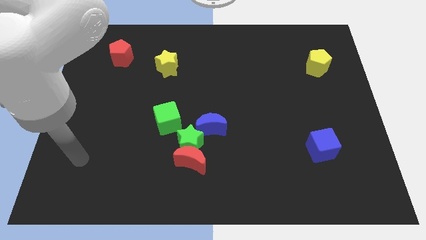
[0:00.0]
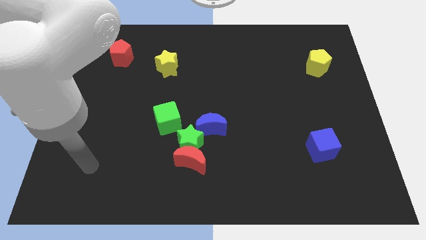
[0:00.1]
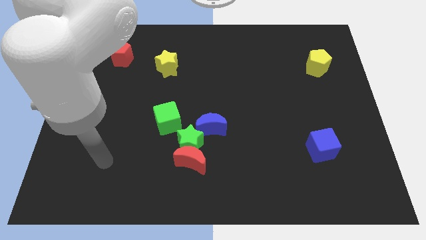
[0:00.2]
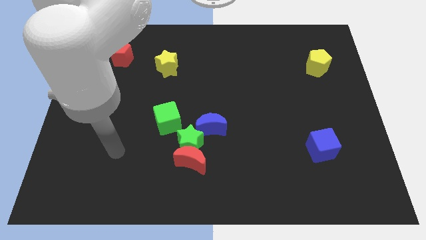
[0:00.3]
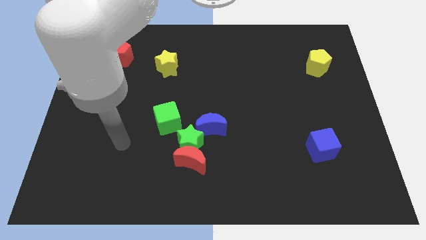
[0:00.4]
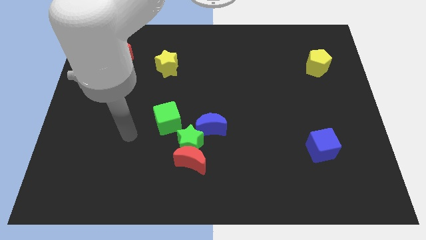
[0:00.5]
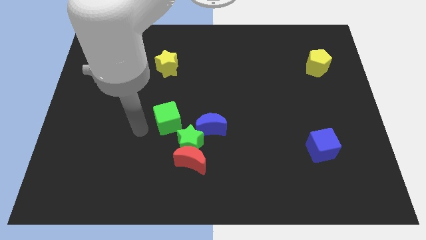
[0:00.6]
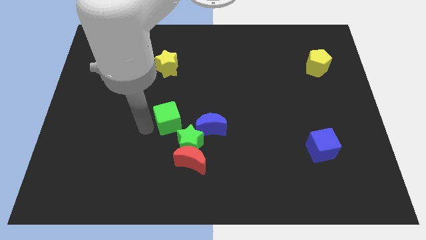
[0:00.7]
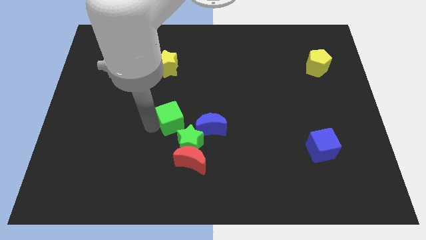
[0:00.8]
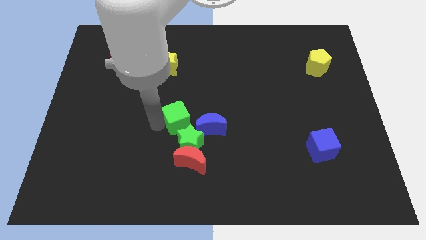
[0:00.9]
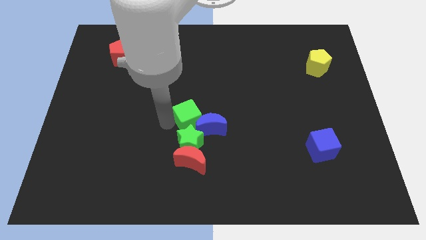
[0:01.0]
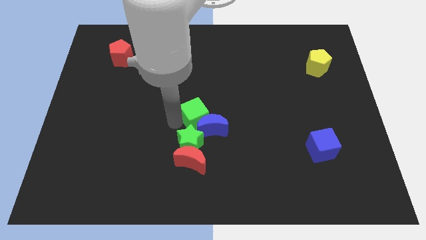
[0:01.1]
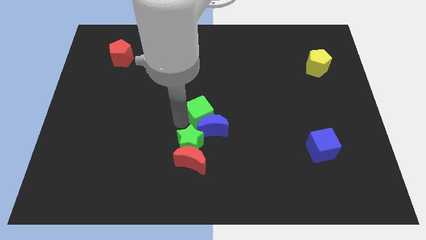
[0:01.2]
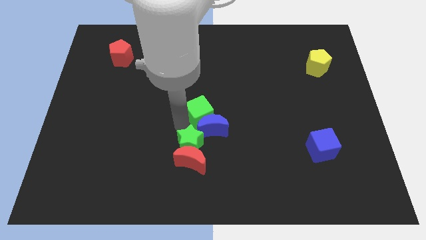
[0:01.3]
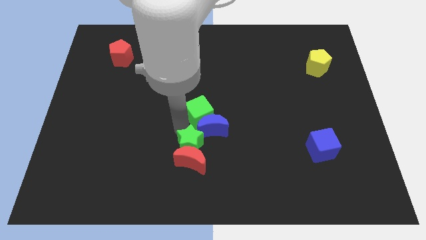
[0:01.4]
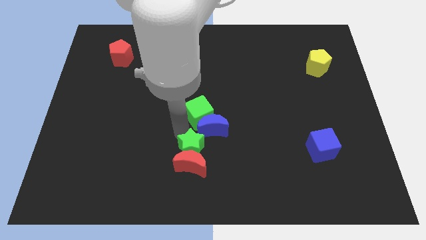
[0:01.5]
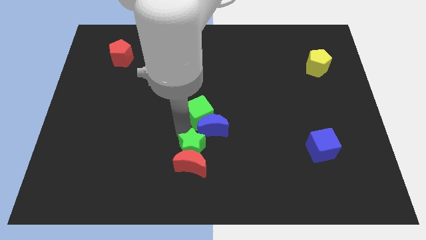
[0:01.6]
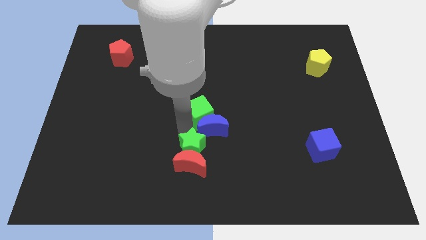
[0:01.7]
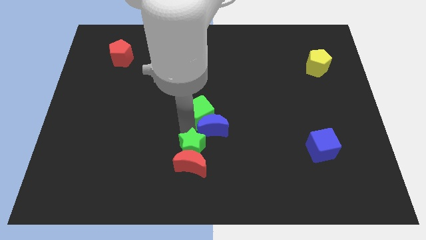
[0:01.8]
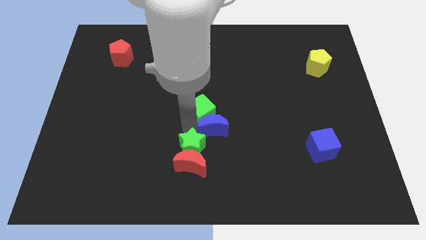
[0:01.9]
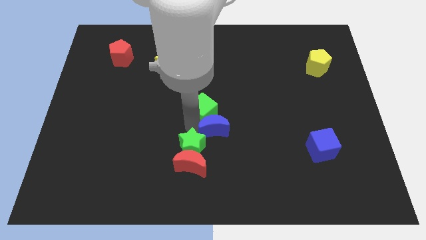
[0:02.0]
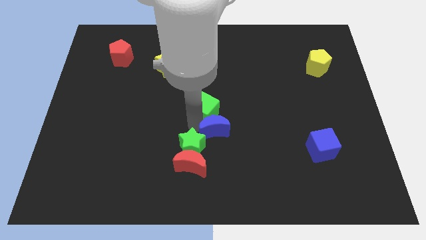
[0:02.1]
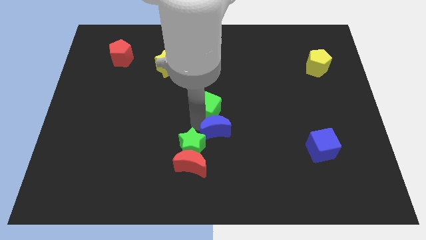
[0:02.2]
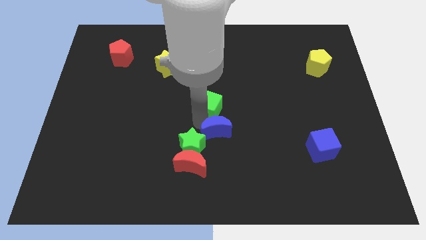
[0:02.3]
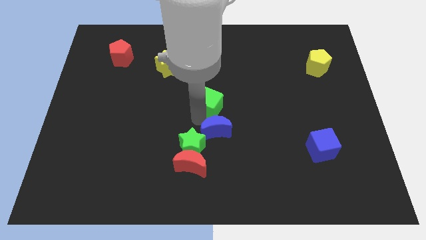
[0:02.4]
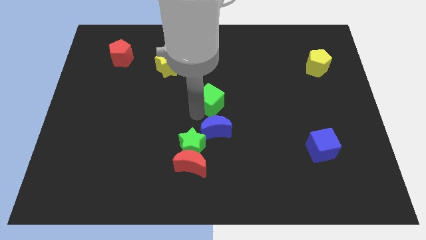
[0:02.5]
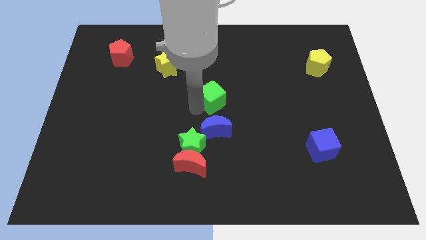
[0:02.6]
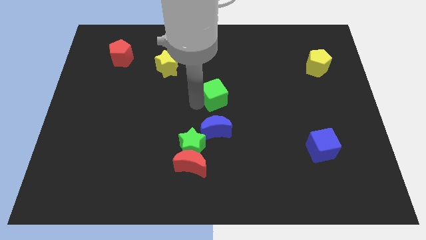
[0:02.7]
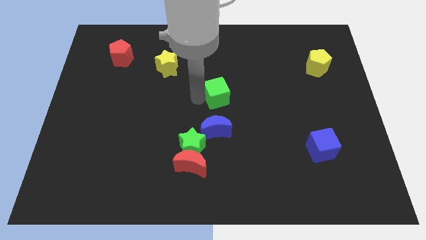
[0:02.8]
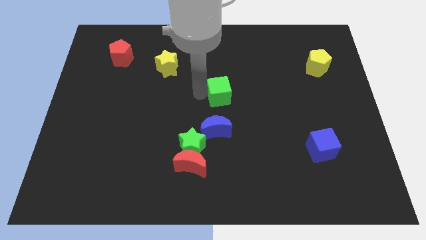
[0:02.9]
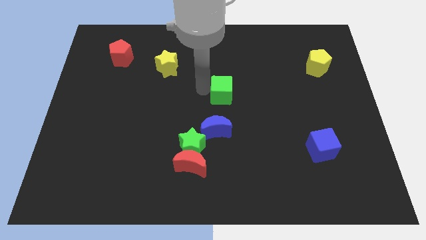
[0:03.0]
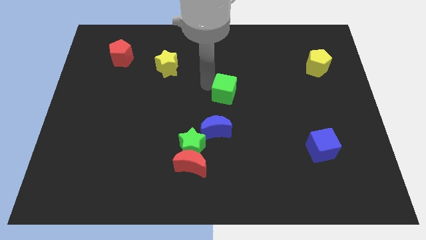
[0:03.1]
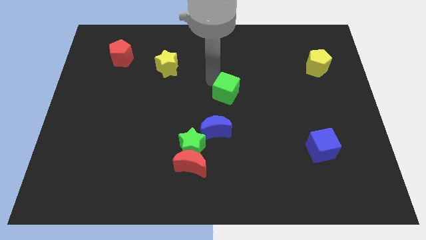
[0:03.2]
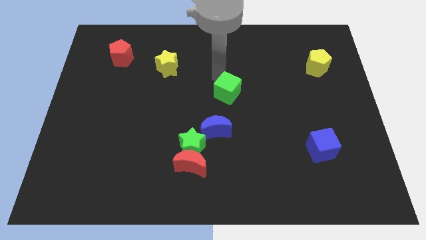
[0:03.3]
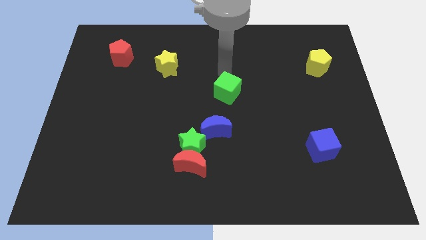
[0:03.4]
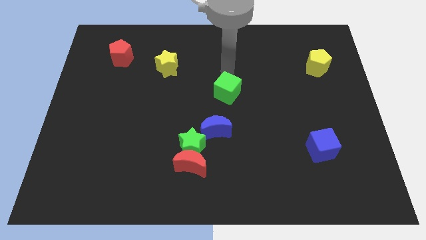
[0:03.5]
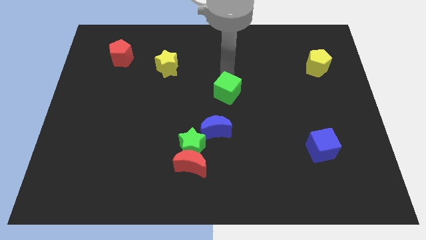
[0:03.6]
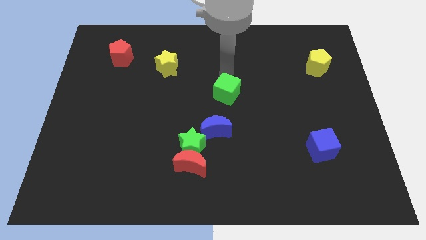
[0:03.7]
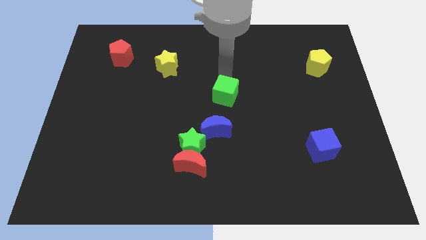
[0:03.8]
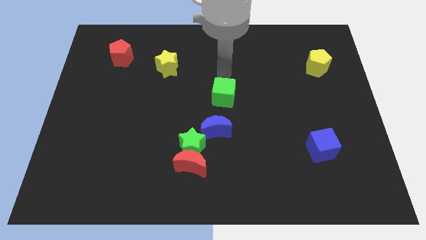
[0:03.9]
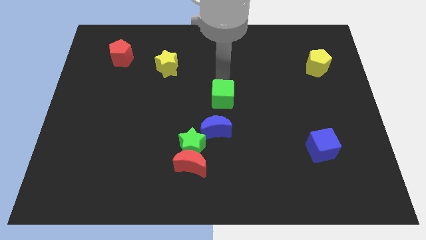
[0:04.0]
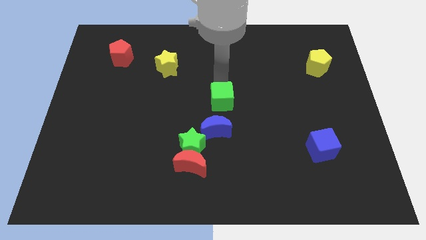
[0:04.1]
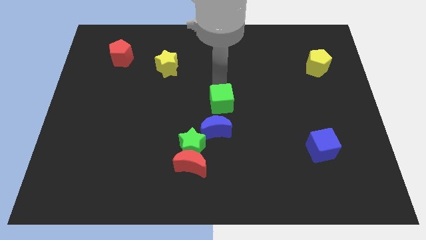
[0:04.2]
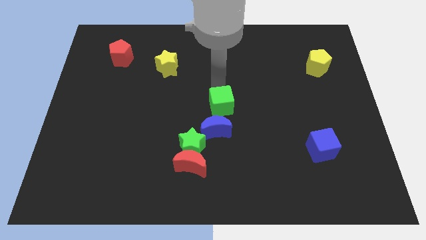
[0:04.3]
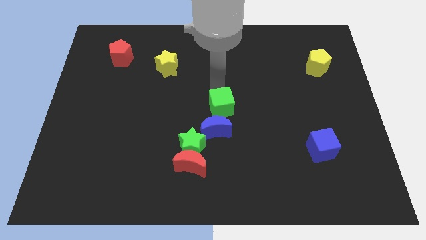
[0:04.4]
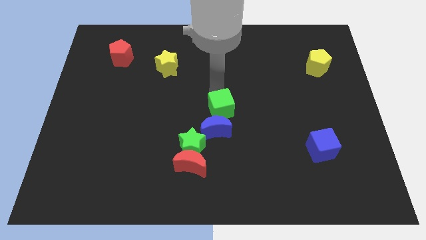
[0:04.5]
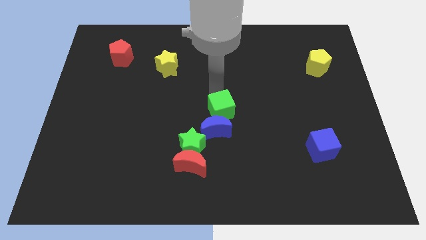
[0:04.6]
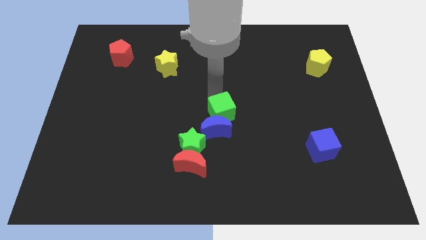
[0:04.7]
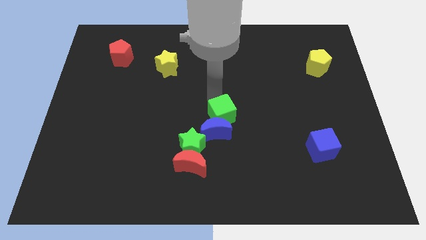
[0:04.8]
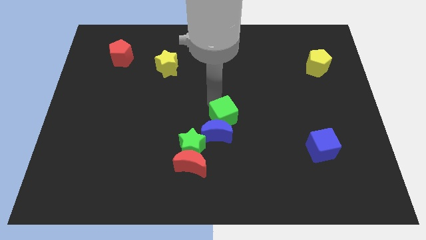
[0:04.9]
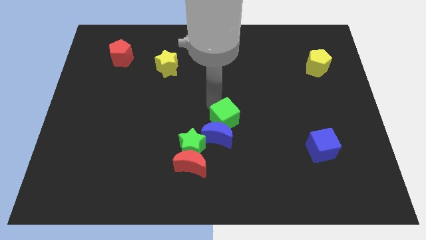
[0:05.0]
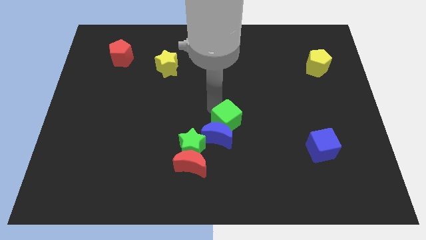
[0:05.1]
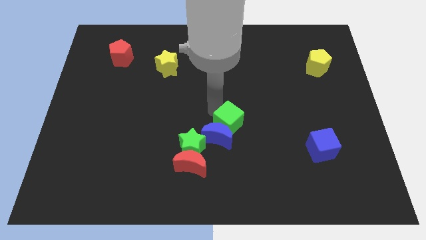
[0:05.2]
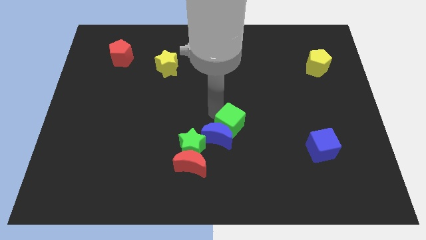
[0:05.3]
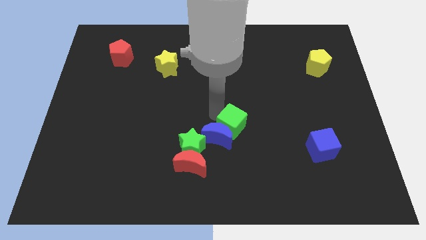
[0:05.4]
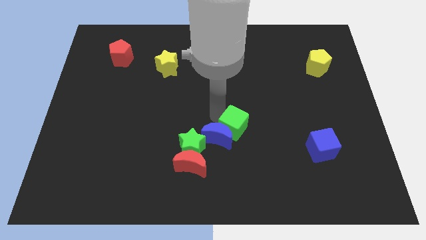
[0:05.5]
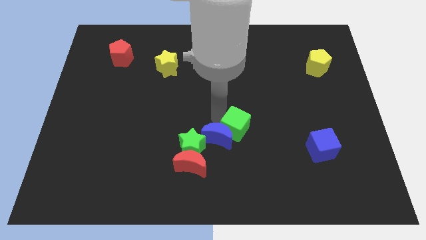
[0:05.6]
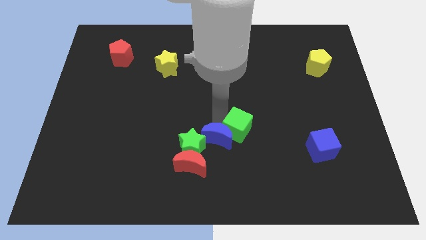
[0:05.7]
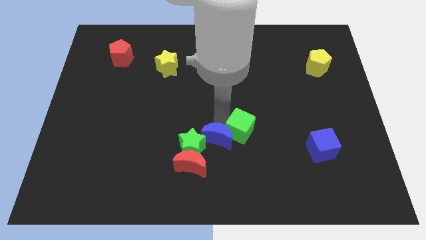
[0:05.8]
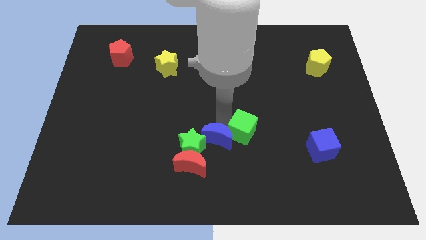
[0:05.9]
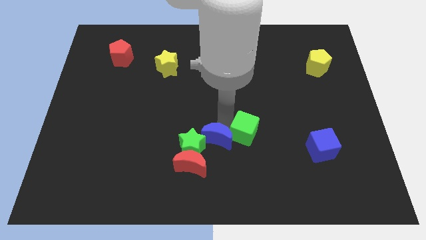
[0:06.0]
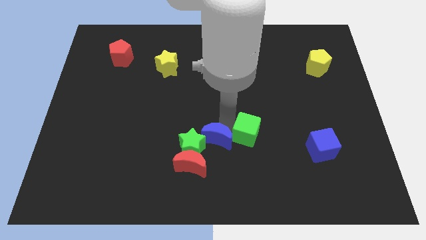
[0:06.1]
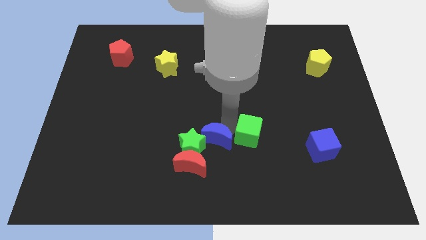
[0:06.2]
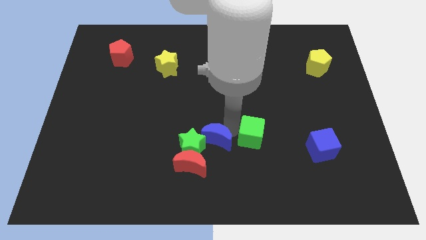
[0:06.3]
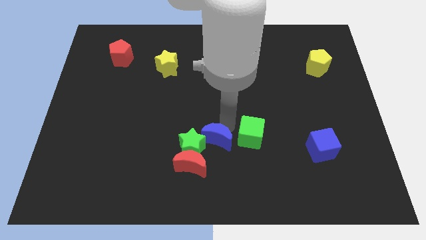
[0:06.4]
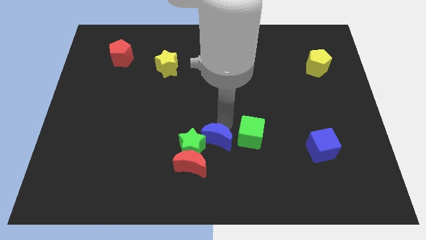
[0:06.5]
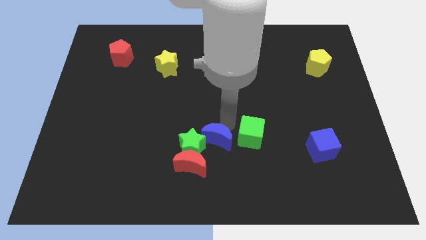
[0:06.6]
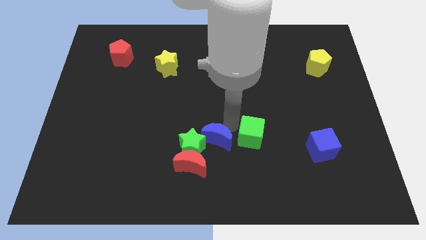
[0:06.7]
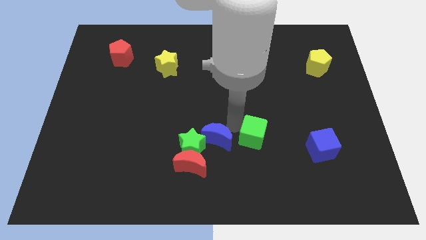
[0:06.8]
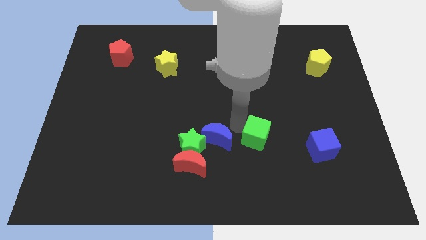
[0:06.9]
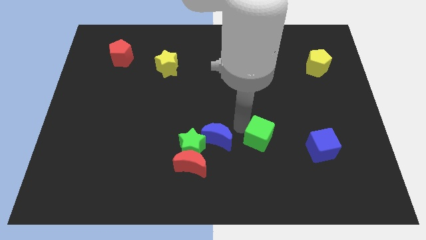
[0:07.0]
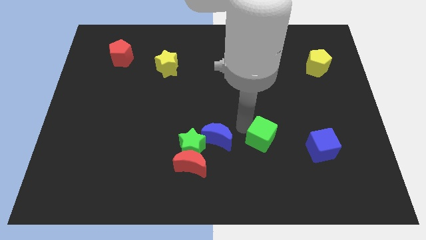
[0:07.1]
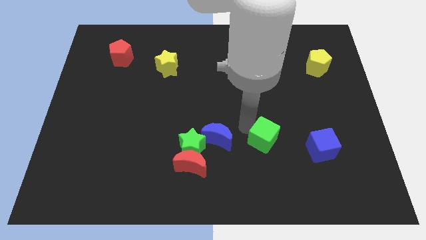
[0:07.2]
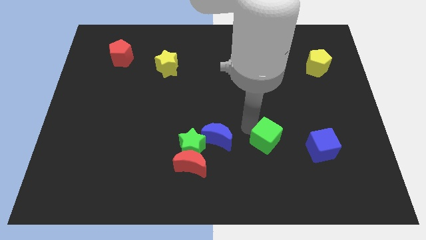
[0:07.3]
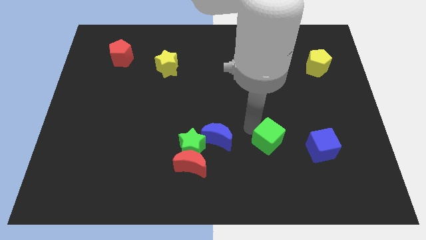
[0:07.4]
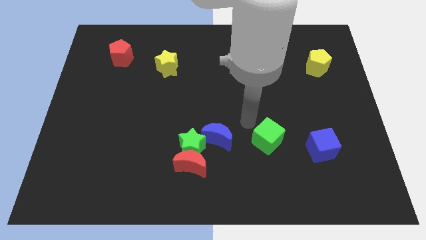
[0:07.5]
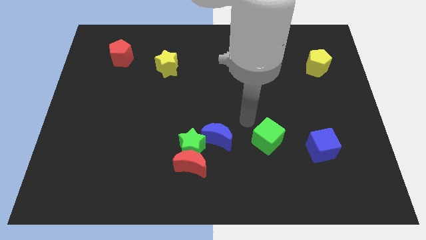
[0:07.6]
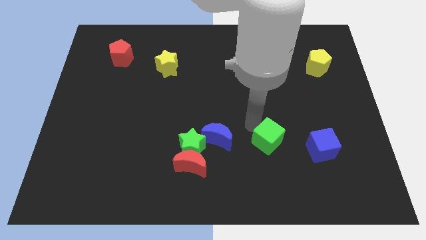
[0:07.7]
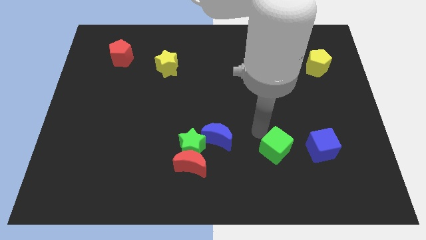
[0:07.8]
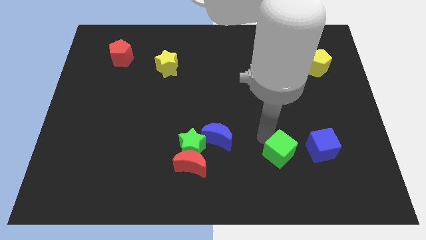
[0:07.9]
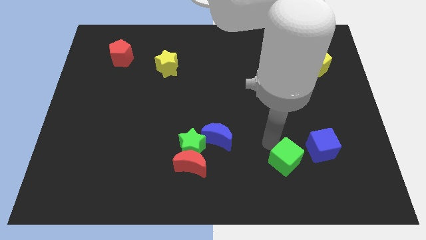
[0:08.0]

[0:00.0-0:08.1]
slide the green cube to the bottom left side of the blue cube
